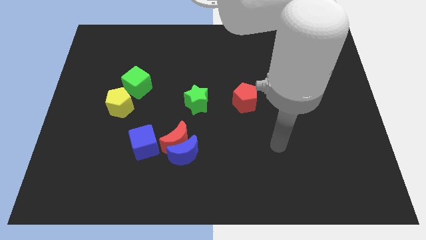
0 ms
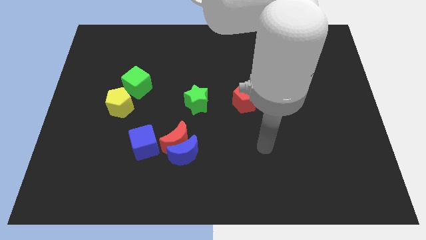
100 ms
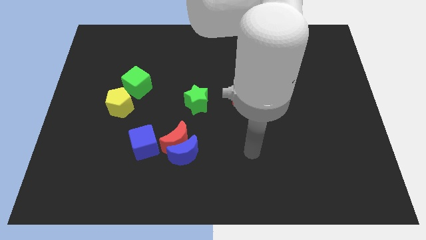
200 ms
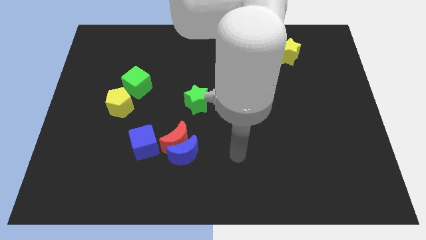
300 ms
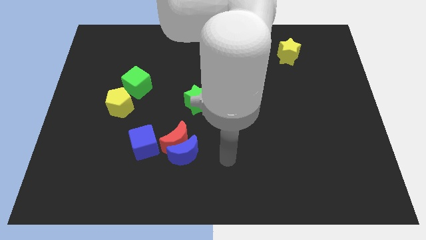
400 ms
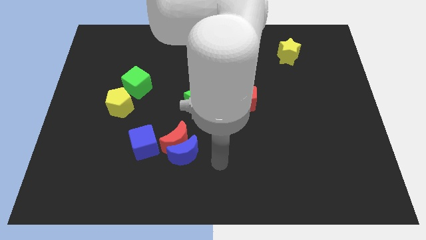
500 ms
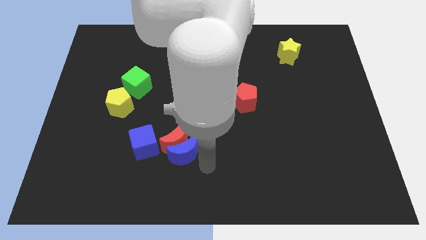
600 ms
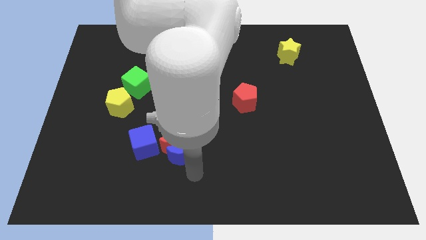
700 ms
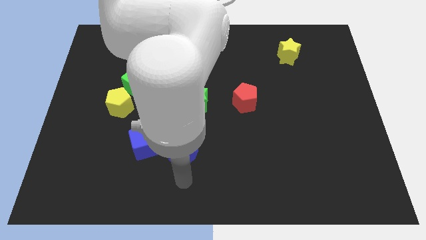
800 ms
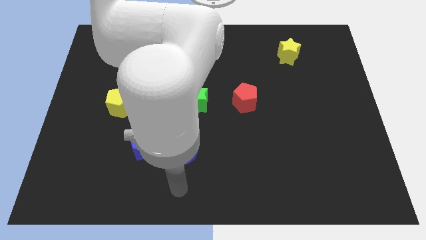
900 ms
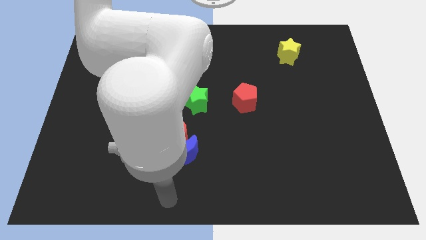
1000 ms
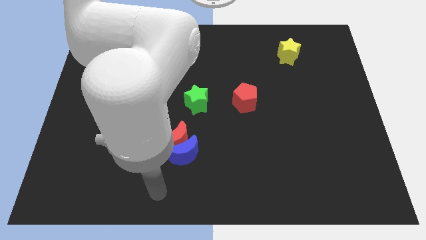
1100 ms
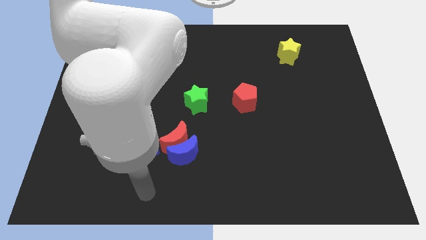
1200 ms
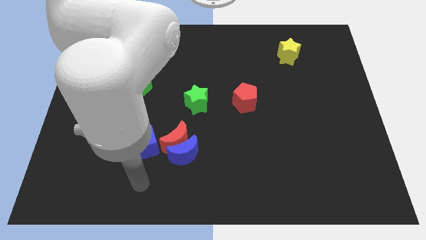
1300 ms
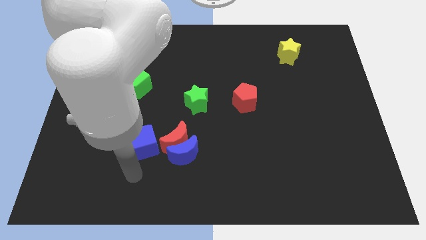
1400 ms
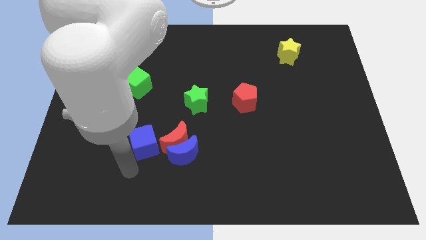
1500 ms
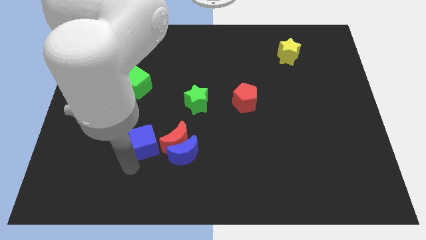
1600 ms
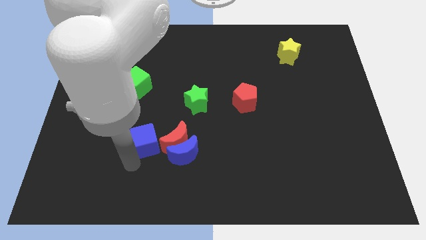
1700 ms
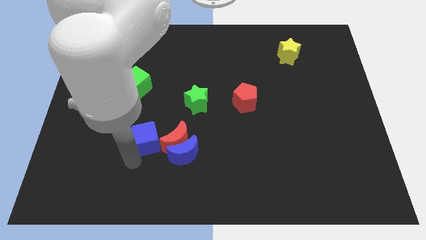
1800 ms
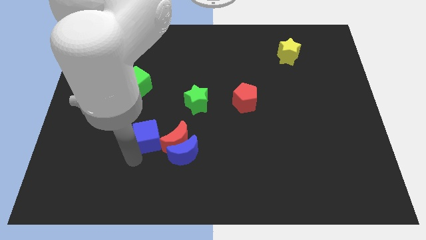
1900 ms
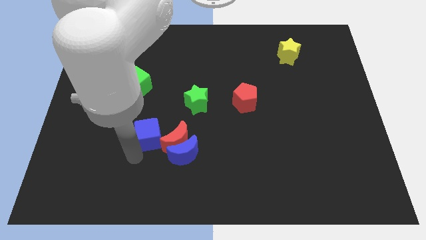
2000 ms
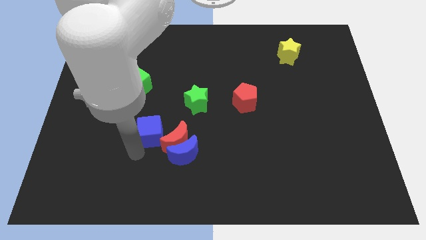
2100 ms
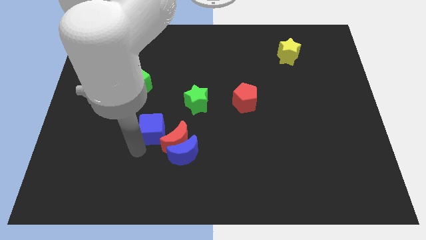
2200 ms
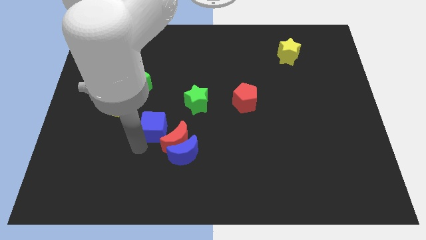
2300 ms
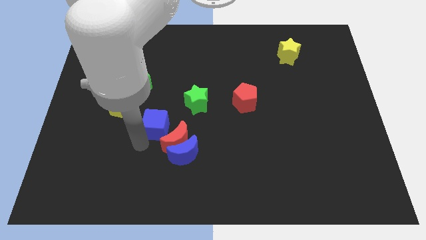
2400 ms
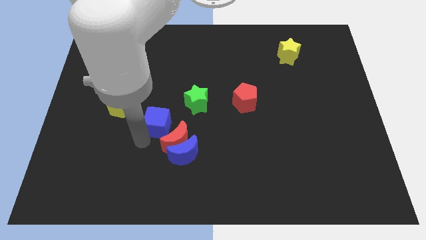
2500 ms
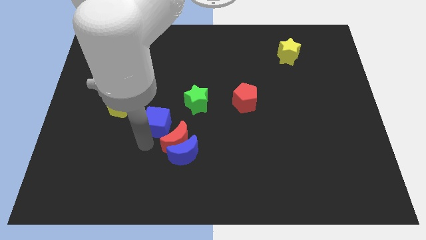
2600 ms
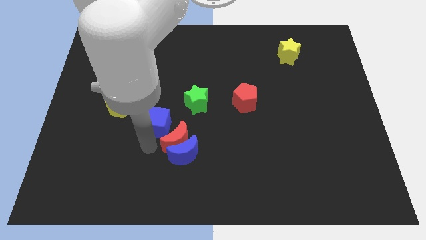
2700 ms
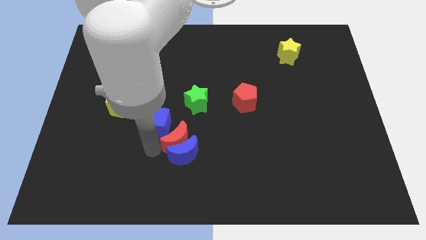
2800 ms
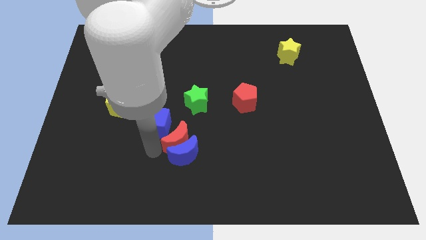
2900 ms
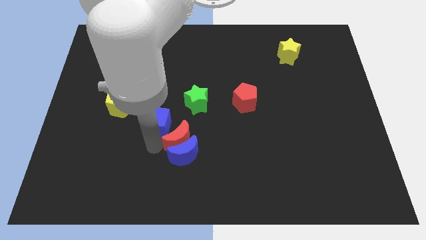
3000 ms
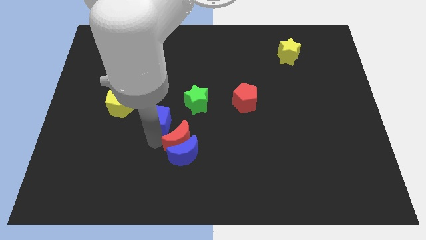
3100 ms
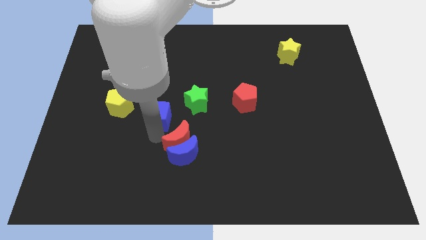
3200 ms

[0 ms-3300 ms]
push the blue cube upwards a little bit

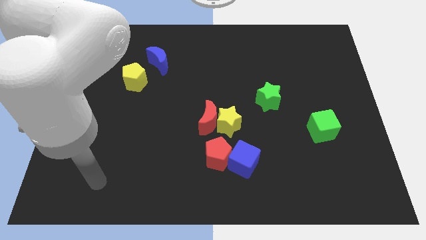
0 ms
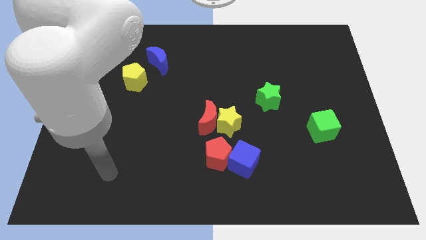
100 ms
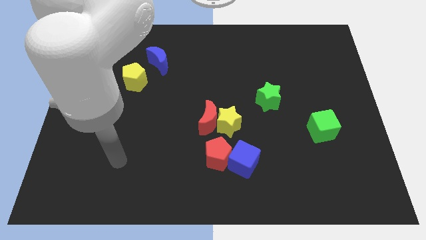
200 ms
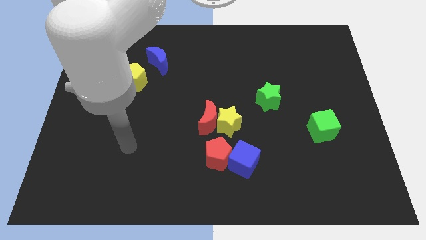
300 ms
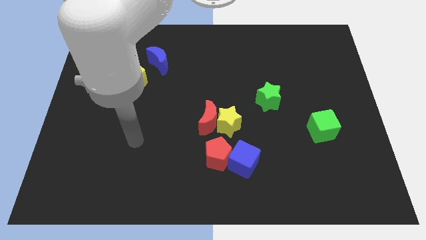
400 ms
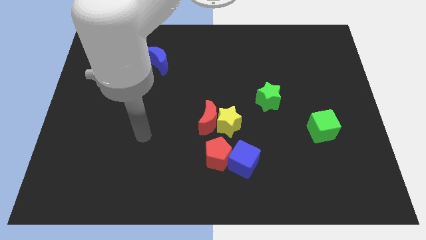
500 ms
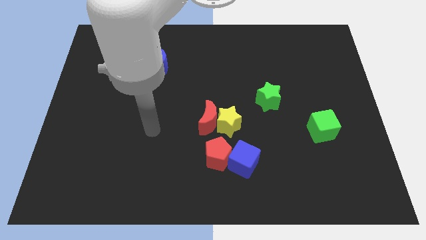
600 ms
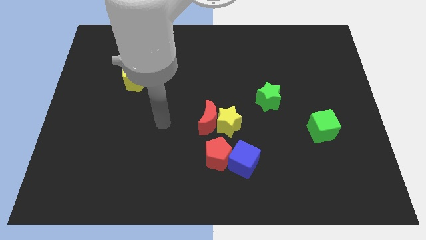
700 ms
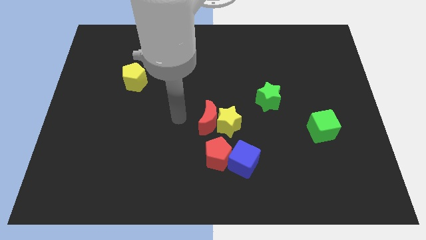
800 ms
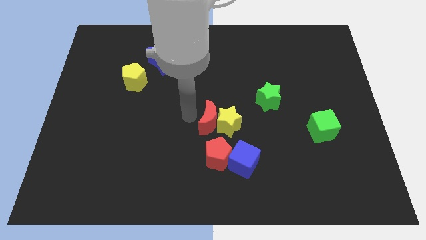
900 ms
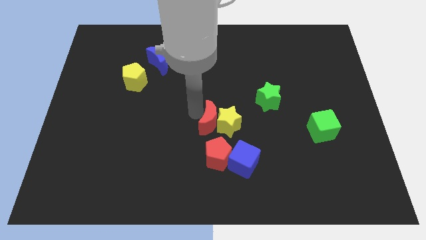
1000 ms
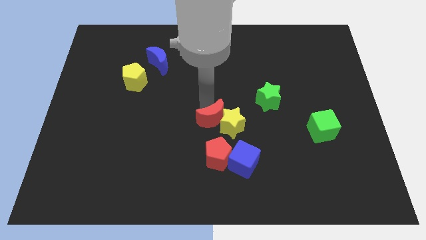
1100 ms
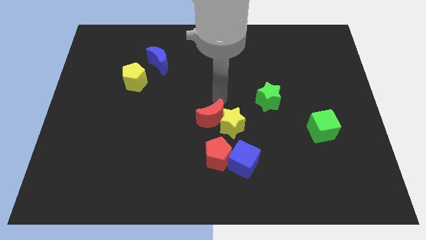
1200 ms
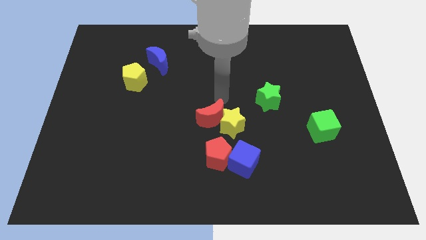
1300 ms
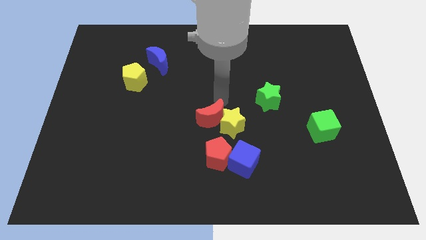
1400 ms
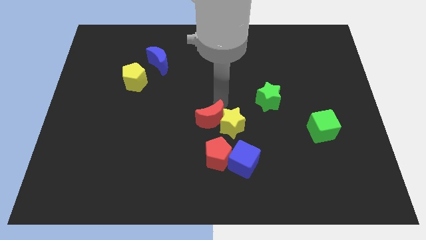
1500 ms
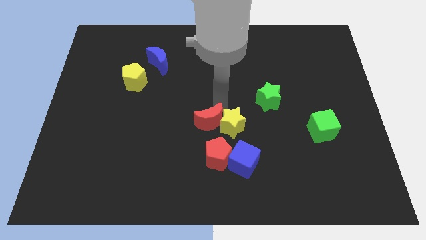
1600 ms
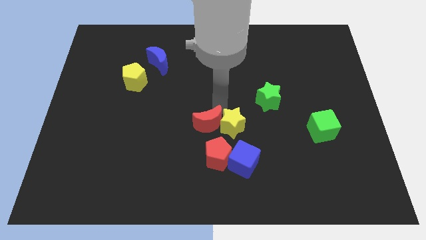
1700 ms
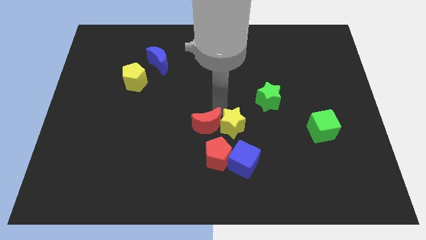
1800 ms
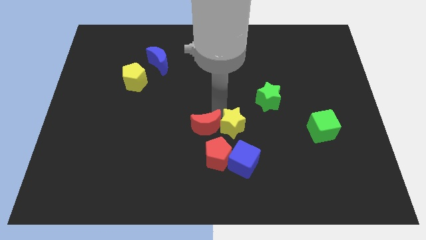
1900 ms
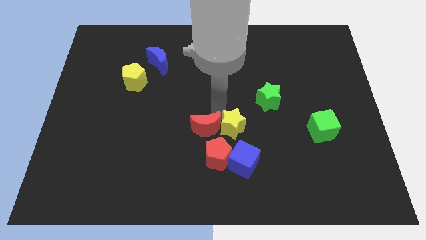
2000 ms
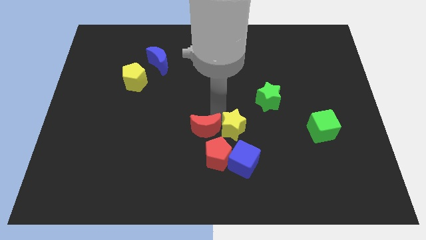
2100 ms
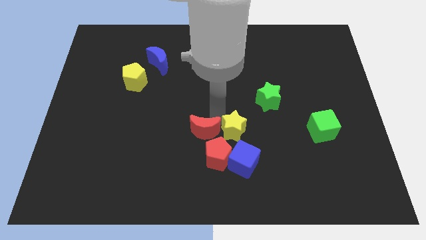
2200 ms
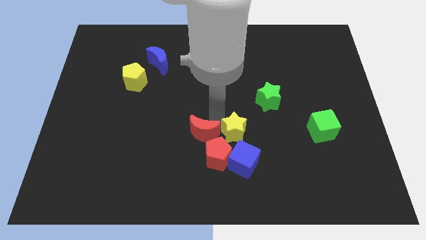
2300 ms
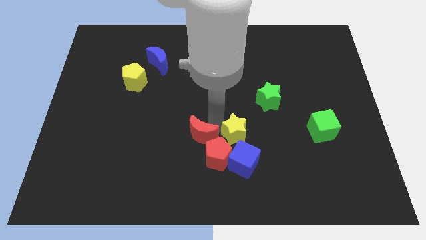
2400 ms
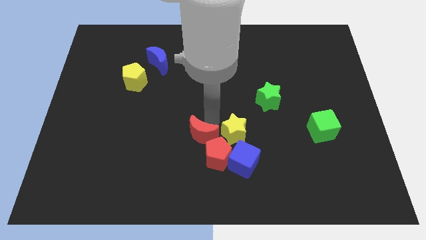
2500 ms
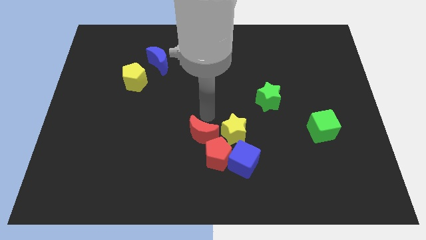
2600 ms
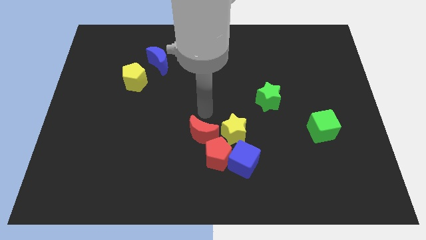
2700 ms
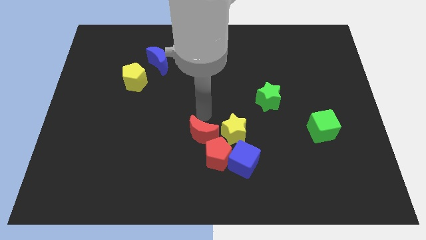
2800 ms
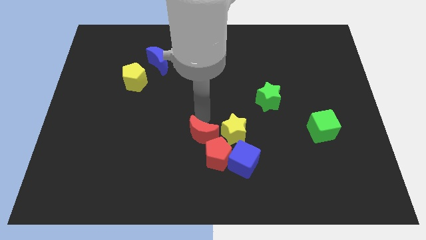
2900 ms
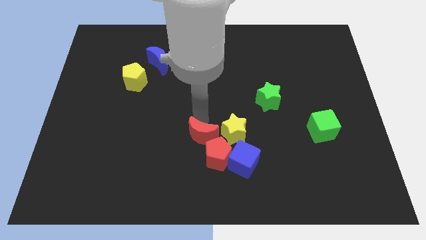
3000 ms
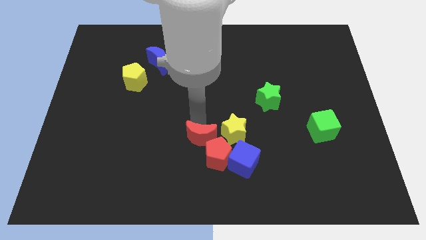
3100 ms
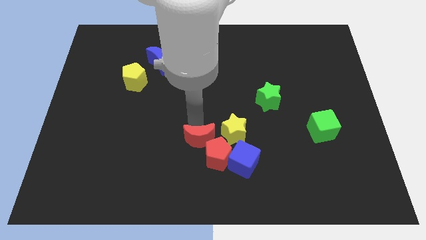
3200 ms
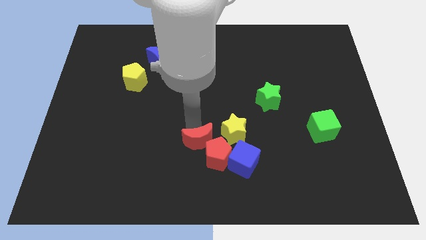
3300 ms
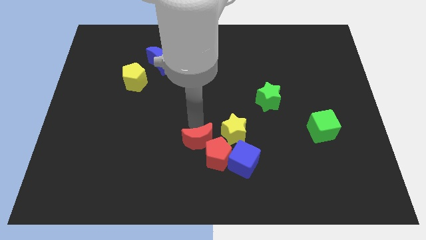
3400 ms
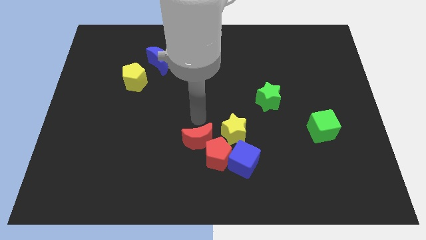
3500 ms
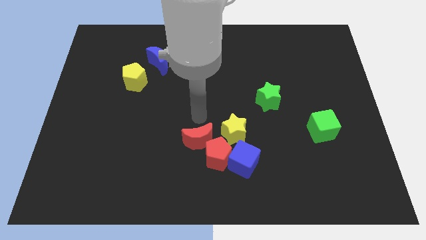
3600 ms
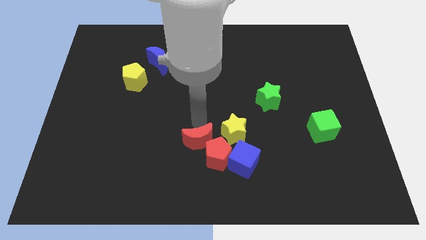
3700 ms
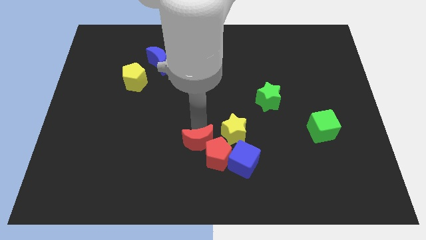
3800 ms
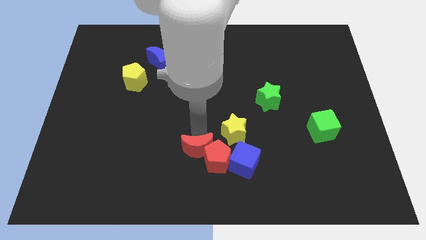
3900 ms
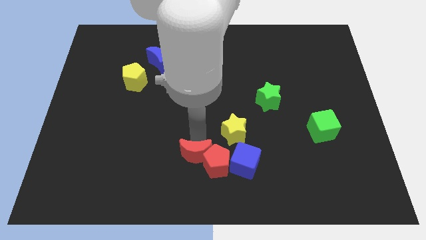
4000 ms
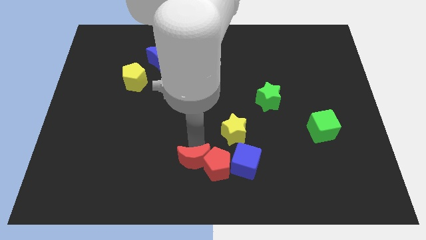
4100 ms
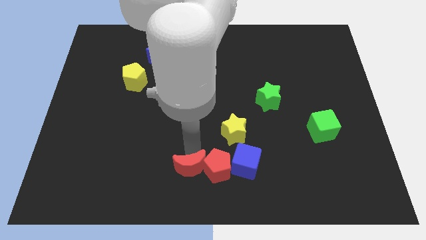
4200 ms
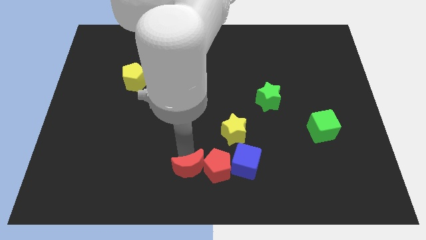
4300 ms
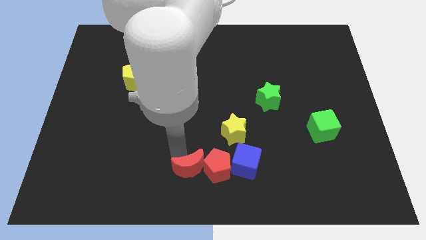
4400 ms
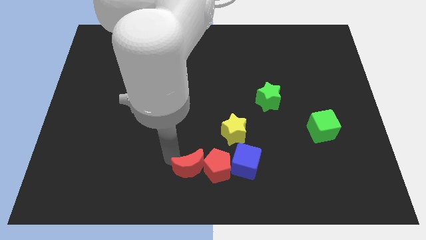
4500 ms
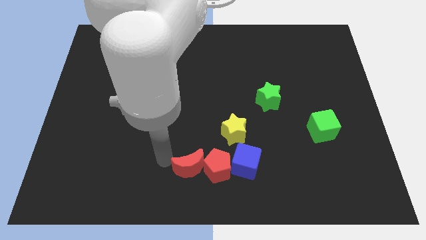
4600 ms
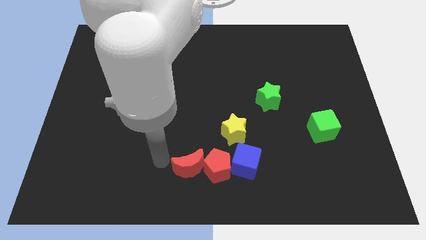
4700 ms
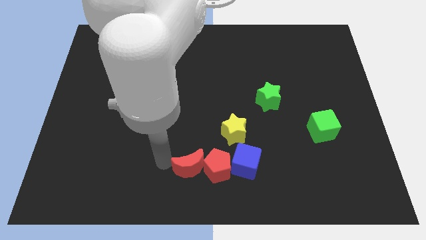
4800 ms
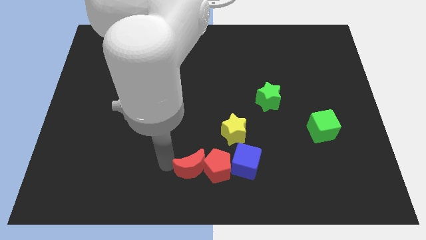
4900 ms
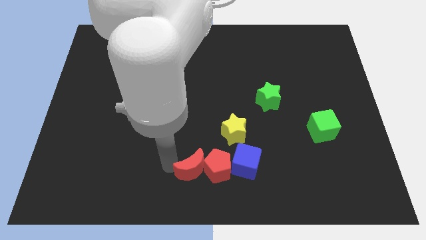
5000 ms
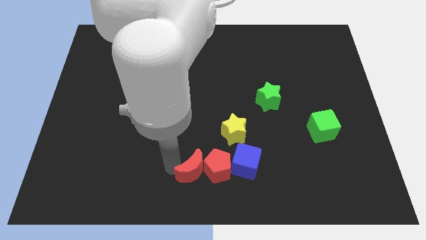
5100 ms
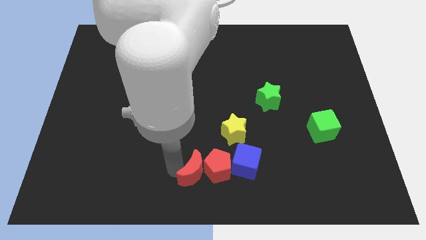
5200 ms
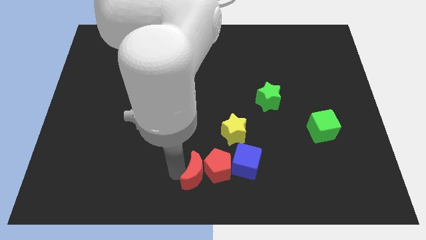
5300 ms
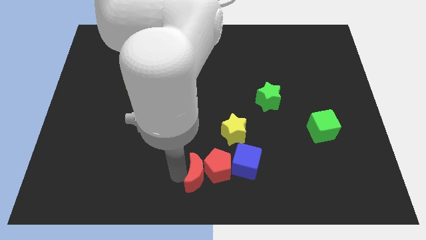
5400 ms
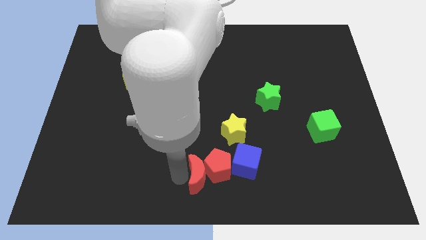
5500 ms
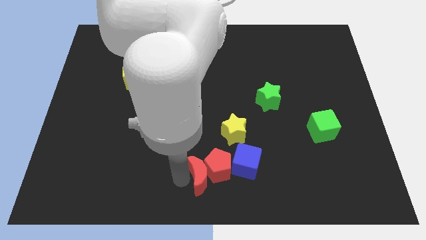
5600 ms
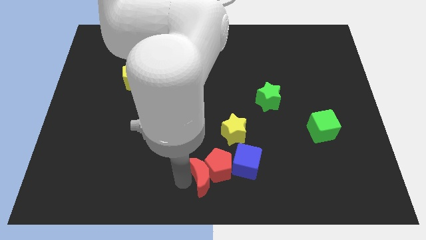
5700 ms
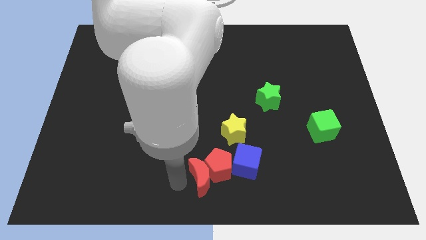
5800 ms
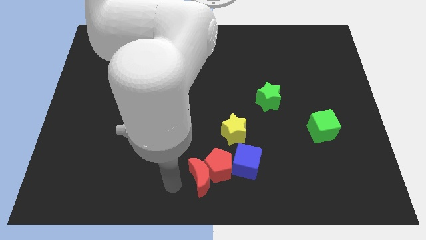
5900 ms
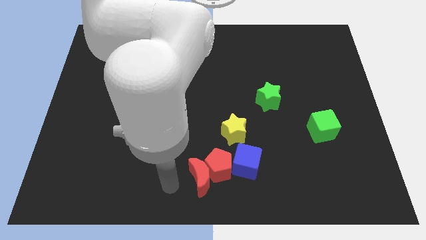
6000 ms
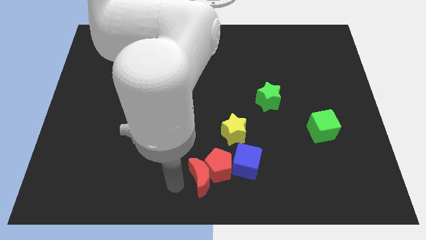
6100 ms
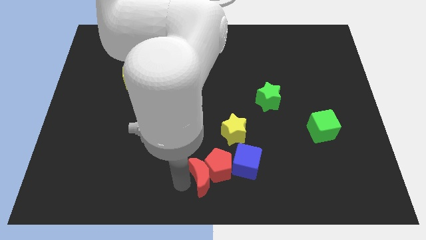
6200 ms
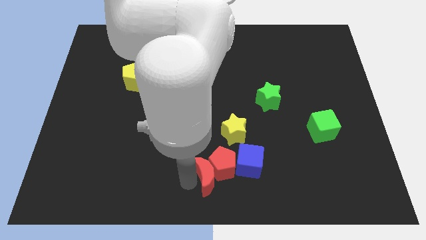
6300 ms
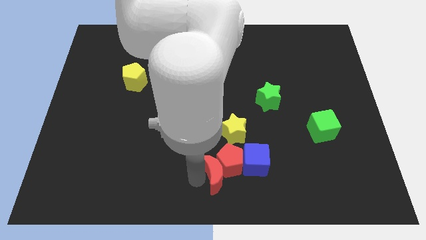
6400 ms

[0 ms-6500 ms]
slightly slide the red moon downwards and to the right diagonally
